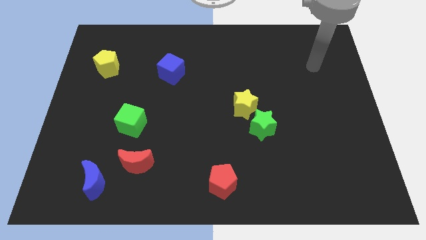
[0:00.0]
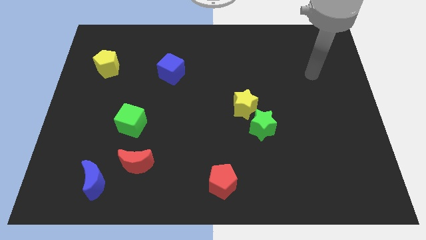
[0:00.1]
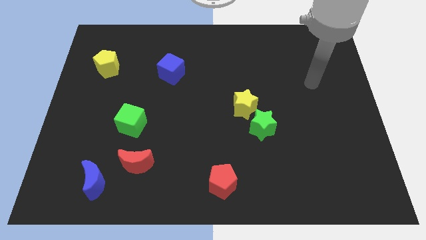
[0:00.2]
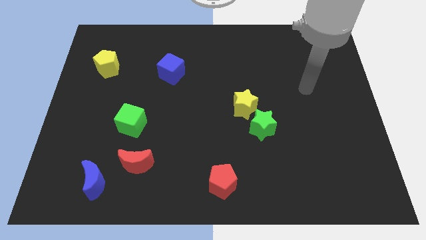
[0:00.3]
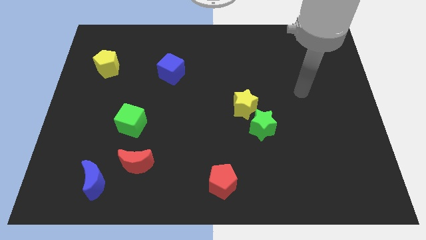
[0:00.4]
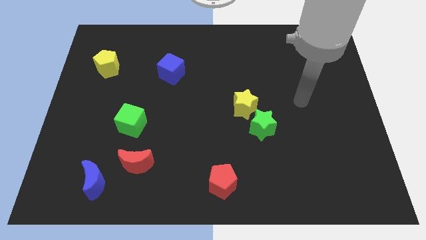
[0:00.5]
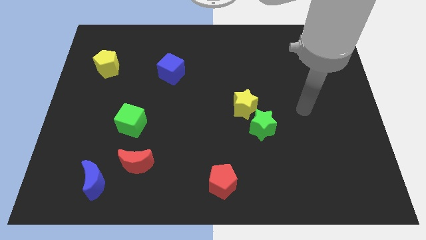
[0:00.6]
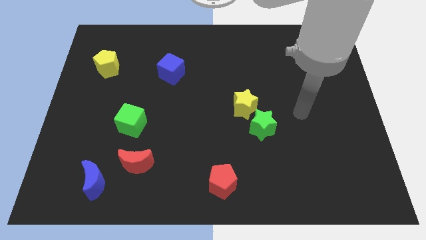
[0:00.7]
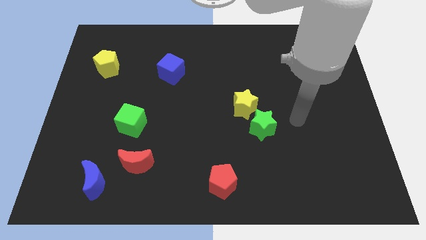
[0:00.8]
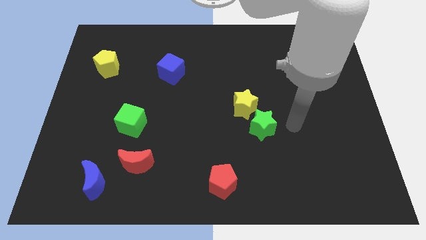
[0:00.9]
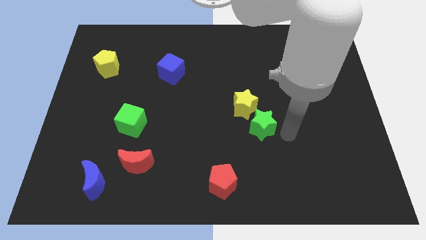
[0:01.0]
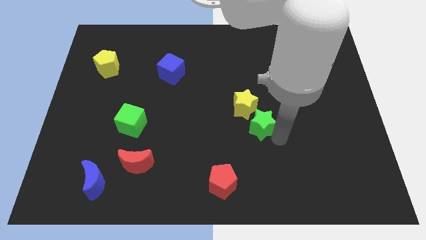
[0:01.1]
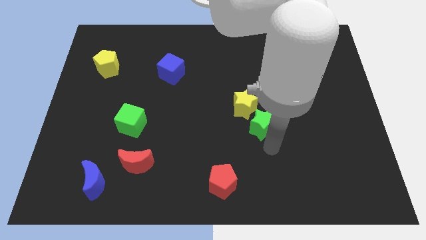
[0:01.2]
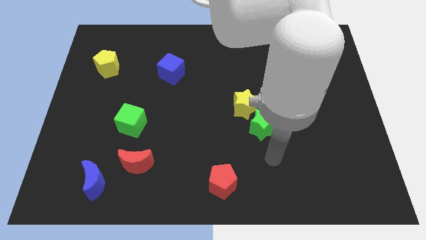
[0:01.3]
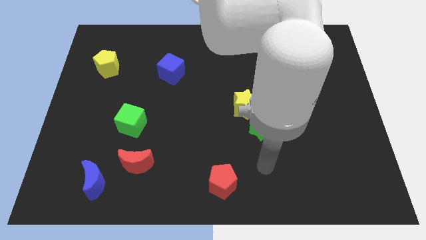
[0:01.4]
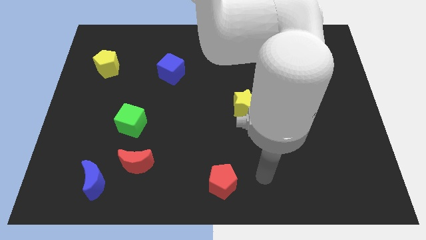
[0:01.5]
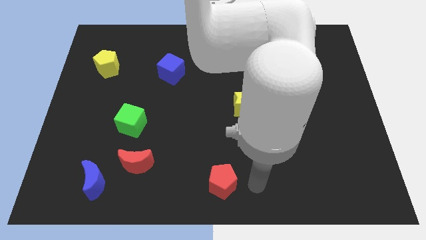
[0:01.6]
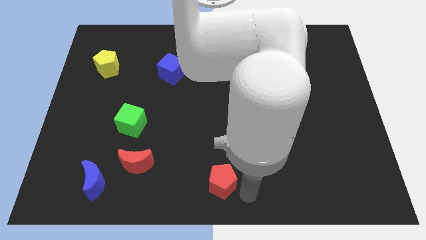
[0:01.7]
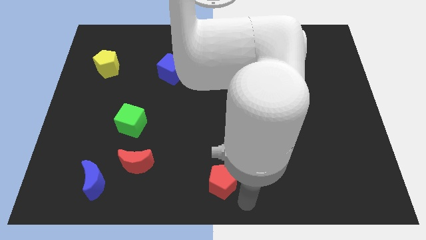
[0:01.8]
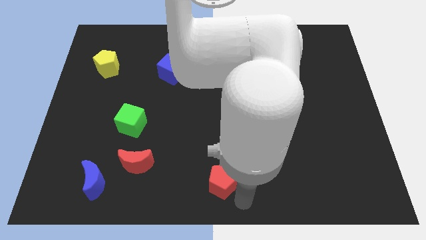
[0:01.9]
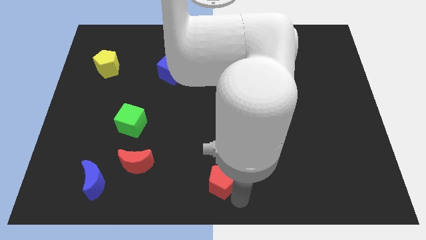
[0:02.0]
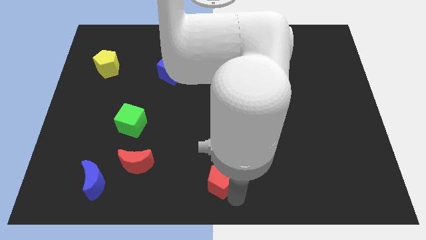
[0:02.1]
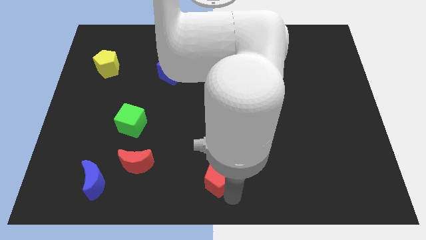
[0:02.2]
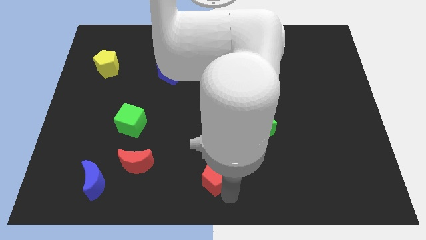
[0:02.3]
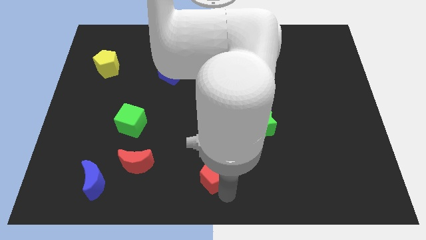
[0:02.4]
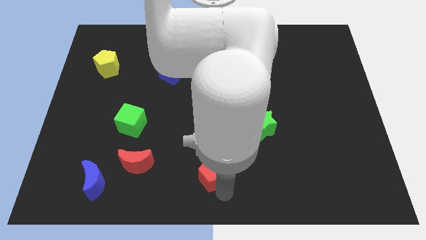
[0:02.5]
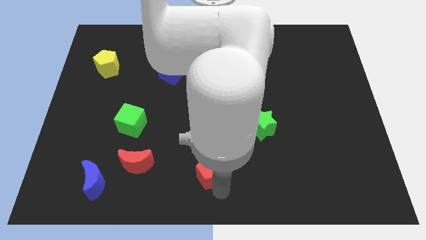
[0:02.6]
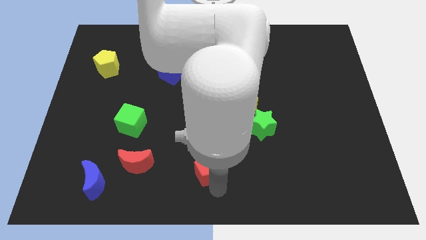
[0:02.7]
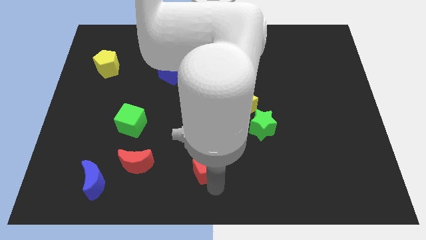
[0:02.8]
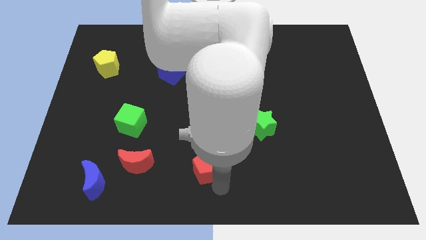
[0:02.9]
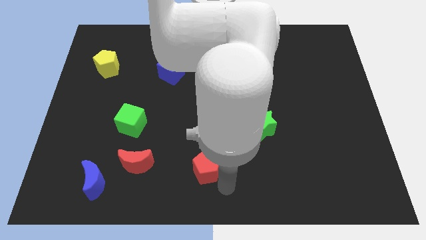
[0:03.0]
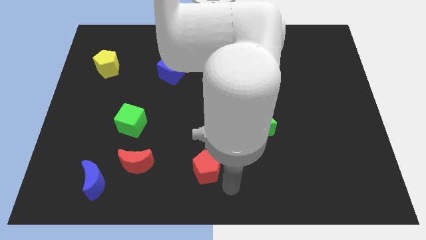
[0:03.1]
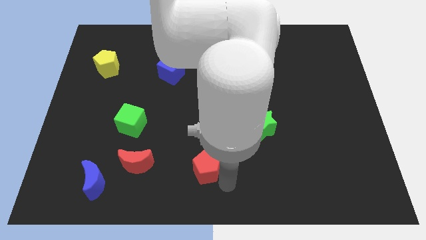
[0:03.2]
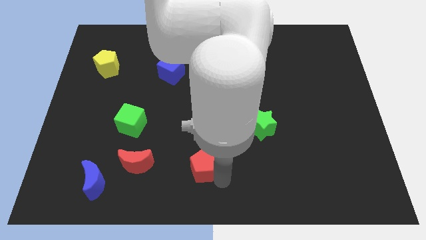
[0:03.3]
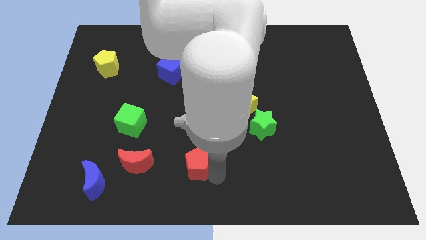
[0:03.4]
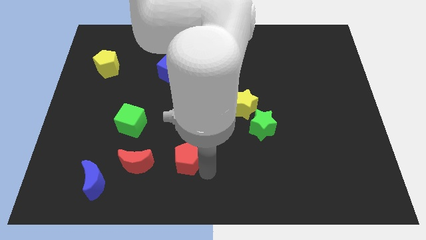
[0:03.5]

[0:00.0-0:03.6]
slide the red pentagon up and to the left a bit

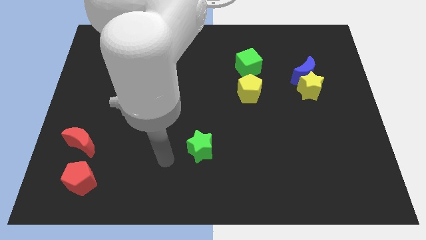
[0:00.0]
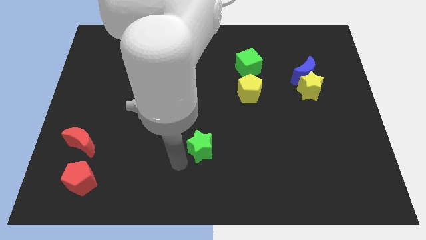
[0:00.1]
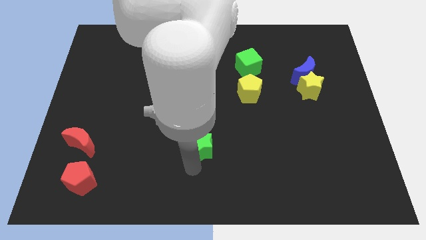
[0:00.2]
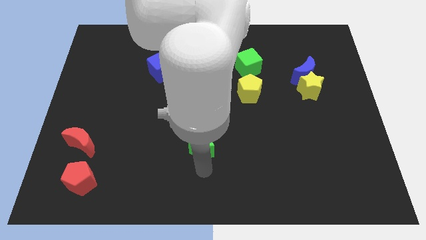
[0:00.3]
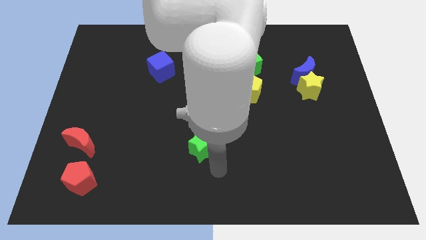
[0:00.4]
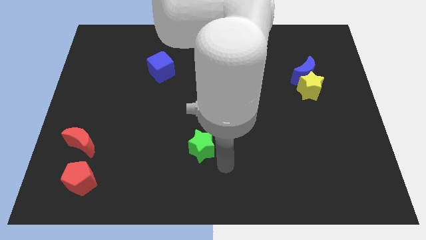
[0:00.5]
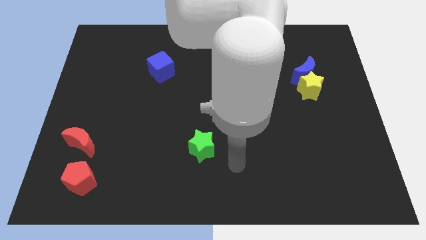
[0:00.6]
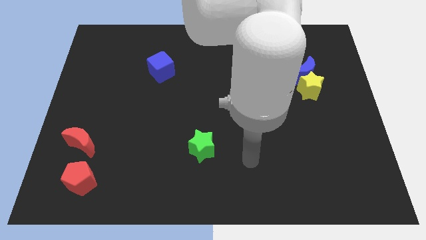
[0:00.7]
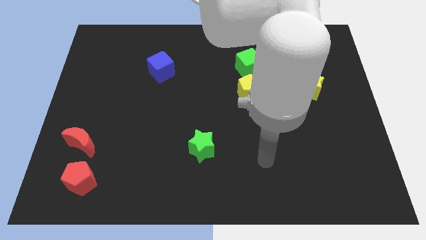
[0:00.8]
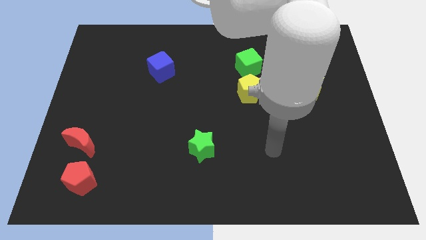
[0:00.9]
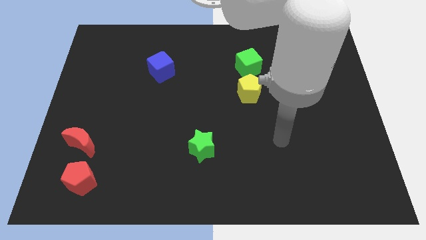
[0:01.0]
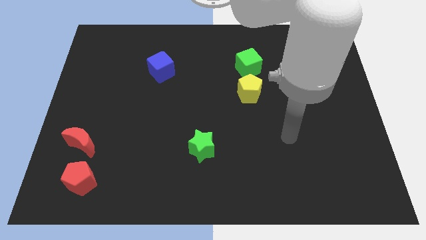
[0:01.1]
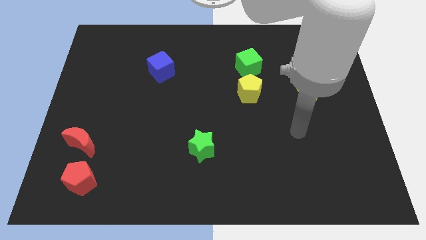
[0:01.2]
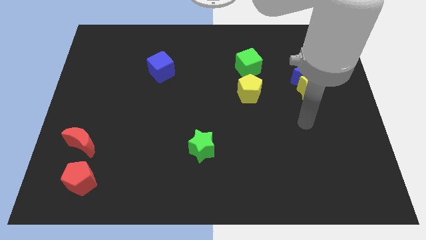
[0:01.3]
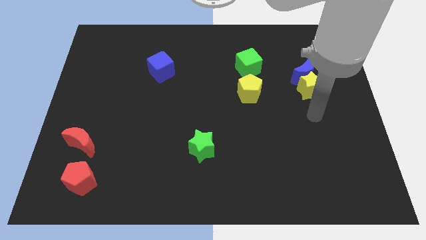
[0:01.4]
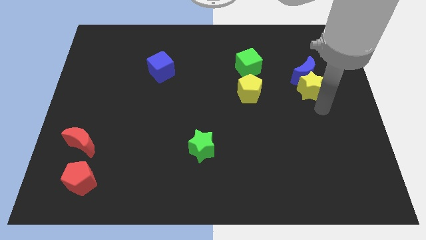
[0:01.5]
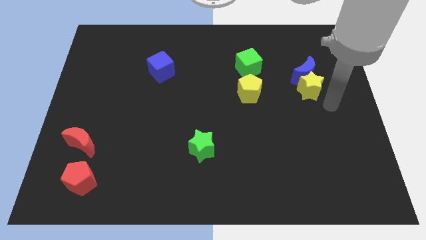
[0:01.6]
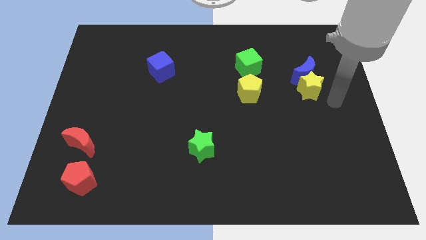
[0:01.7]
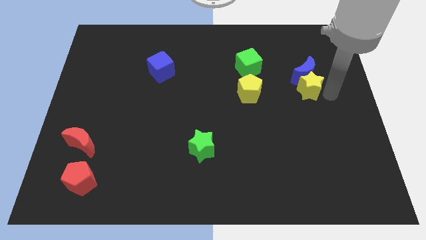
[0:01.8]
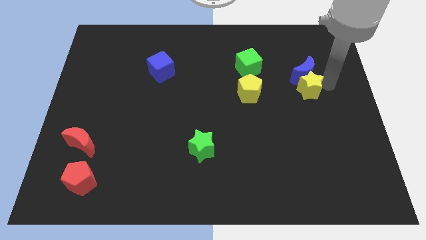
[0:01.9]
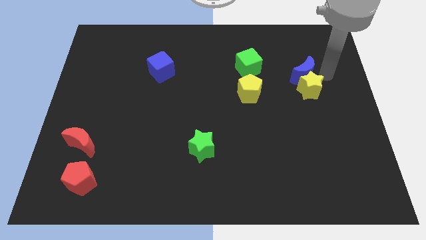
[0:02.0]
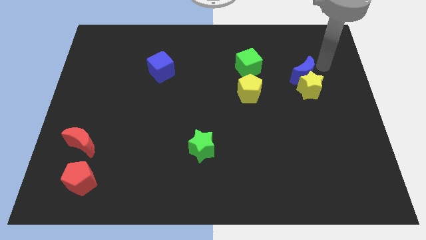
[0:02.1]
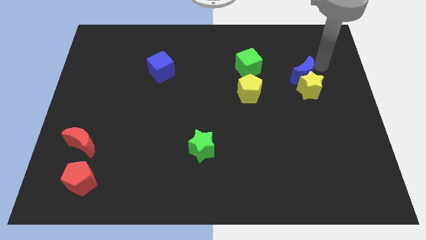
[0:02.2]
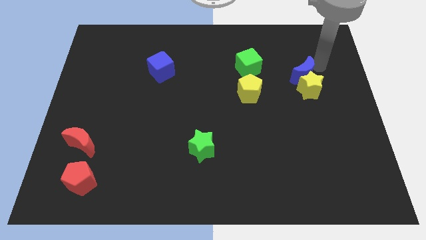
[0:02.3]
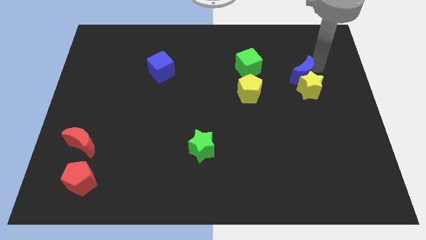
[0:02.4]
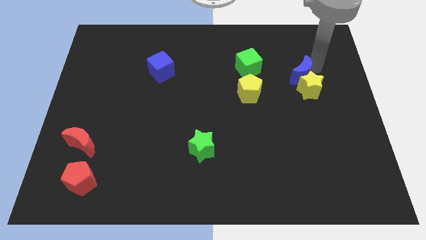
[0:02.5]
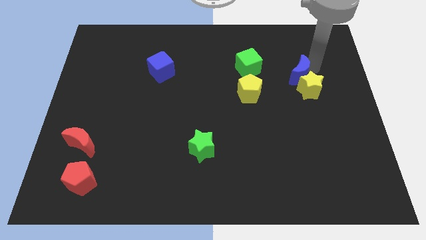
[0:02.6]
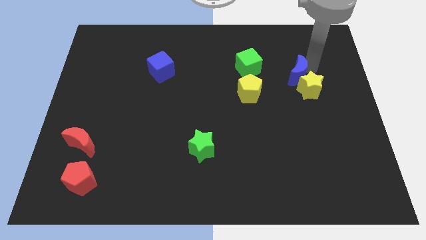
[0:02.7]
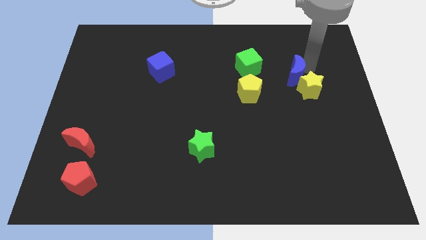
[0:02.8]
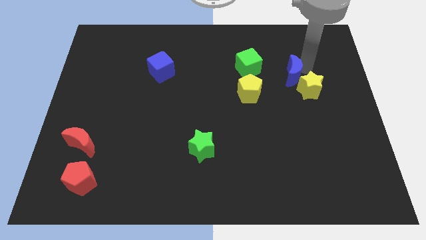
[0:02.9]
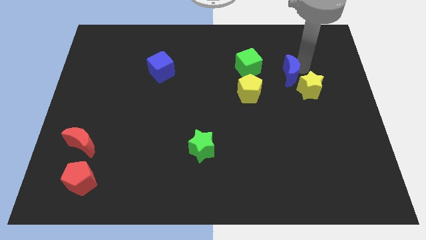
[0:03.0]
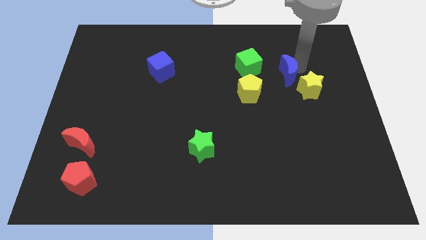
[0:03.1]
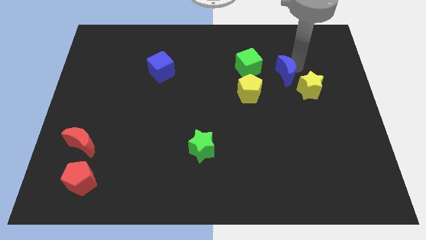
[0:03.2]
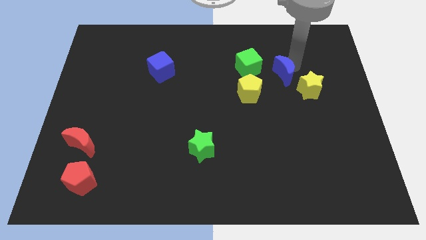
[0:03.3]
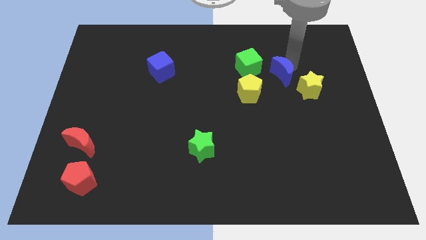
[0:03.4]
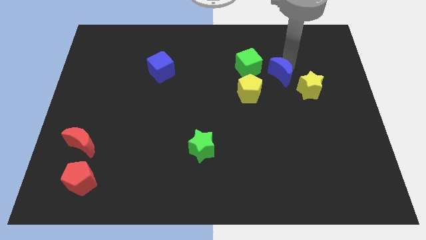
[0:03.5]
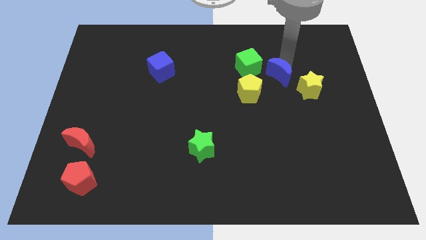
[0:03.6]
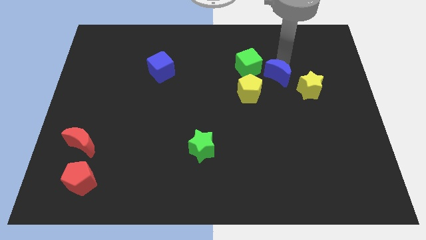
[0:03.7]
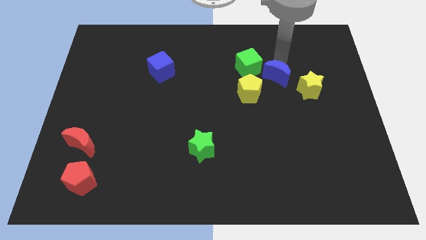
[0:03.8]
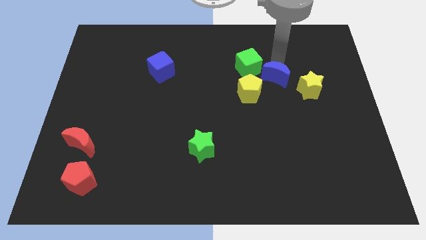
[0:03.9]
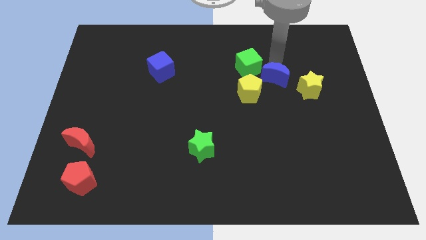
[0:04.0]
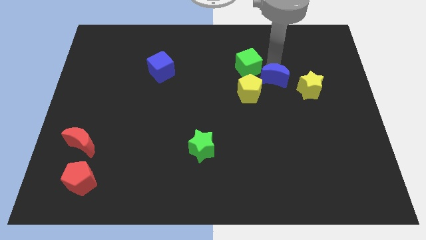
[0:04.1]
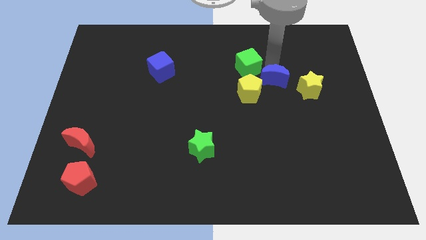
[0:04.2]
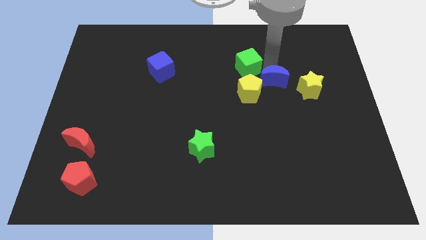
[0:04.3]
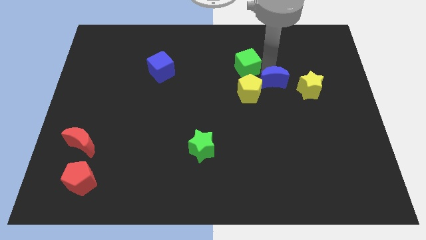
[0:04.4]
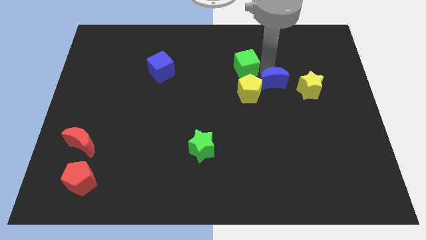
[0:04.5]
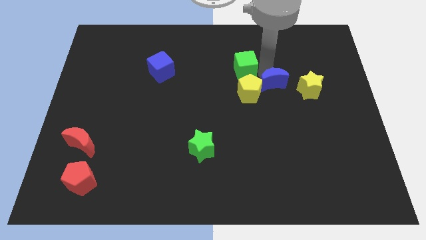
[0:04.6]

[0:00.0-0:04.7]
push the blue moon diagonally down and to the left a little

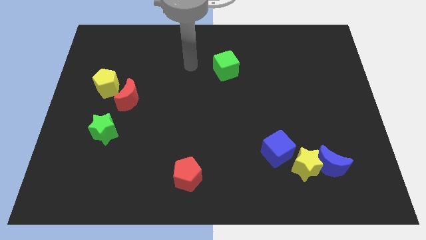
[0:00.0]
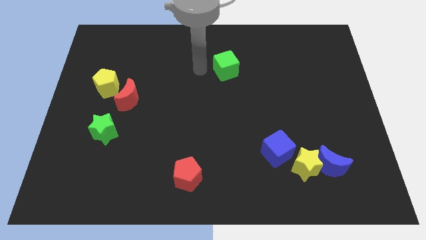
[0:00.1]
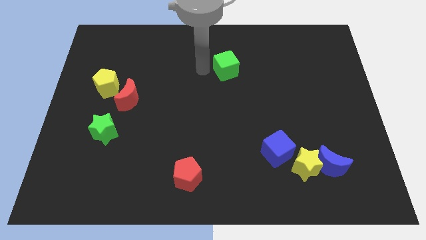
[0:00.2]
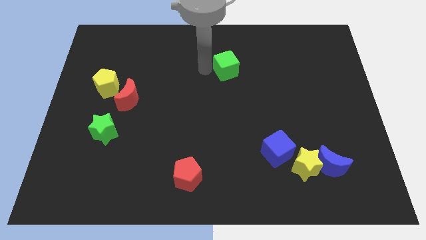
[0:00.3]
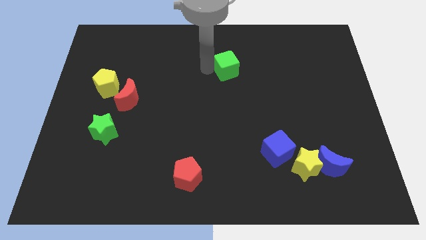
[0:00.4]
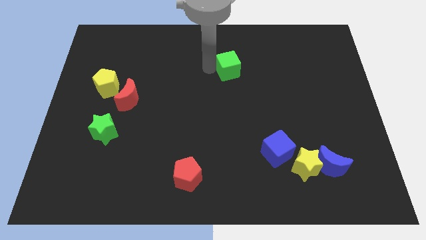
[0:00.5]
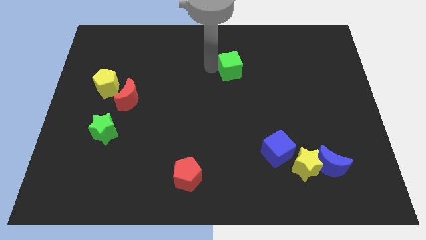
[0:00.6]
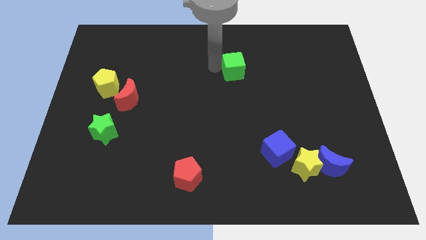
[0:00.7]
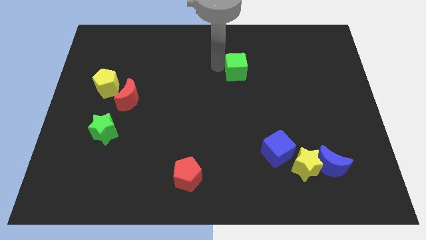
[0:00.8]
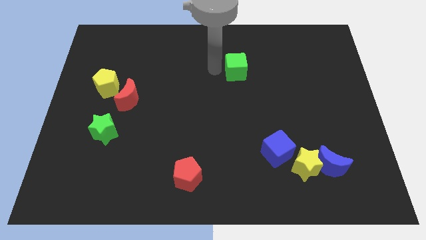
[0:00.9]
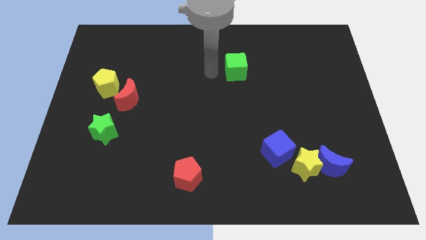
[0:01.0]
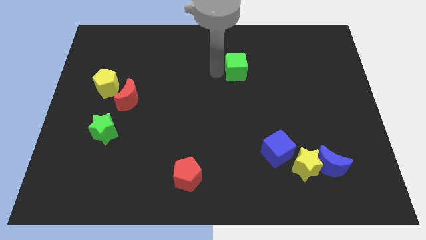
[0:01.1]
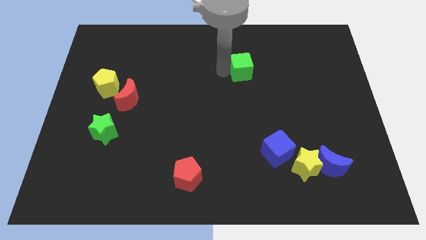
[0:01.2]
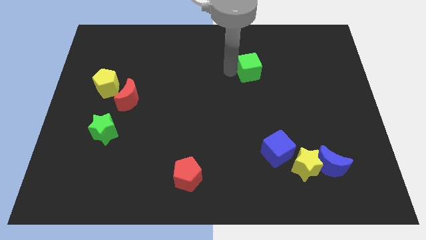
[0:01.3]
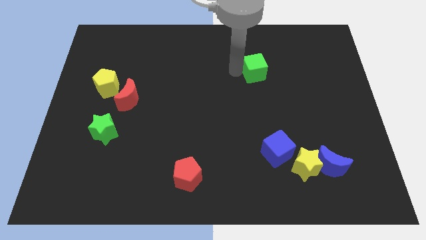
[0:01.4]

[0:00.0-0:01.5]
slide the green cube to the right a bit
